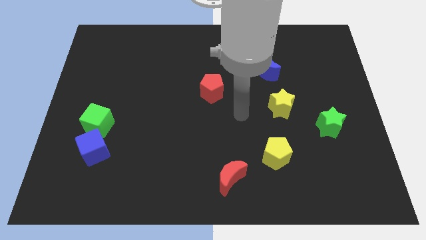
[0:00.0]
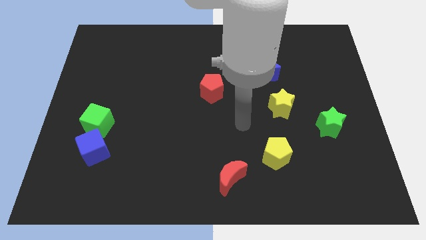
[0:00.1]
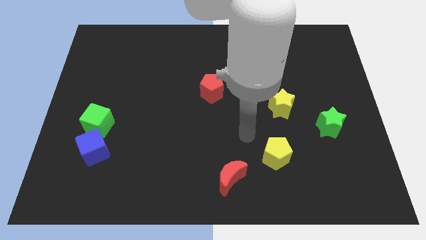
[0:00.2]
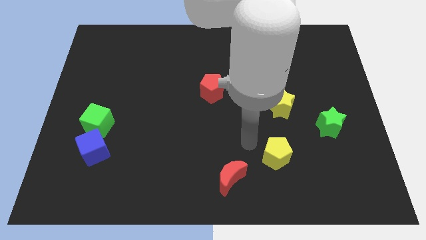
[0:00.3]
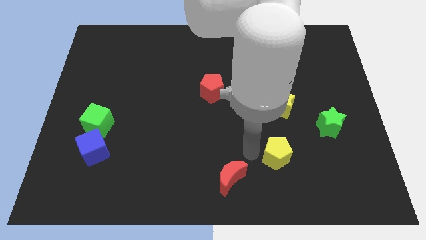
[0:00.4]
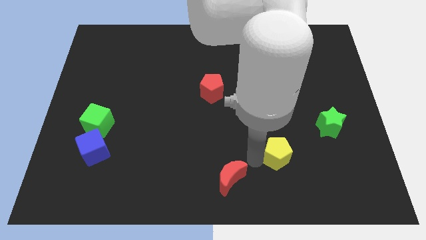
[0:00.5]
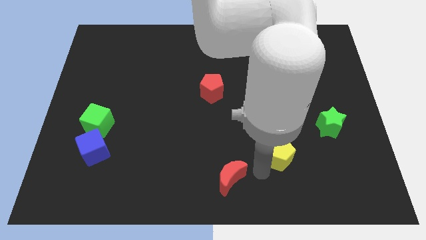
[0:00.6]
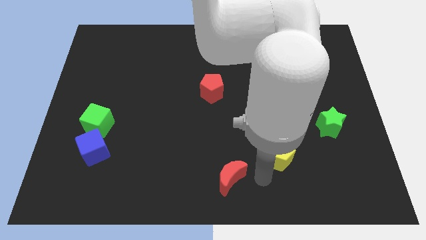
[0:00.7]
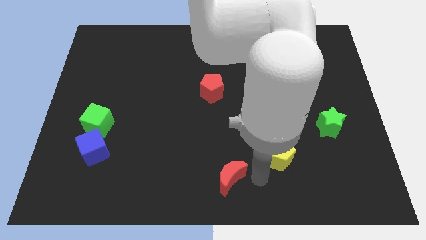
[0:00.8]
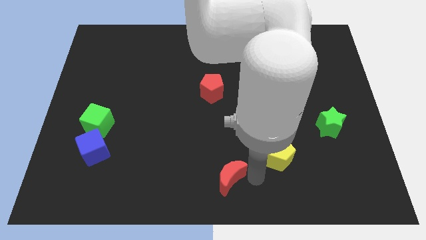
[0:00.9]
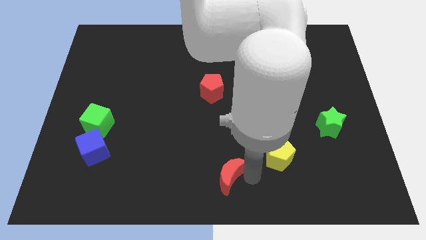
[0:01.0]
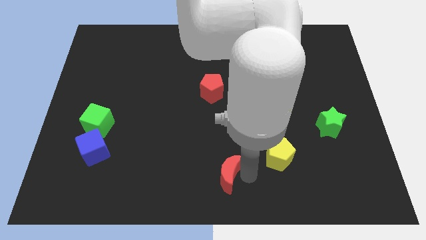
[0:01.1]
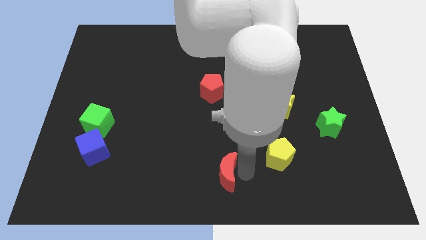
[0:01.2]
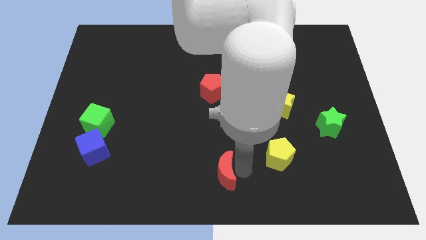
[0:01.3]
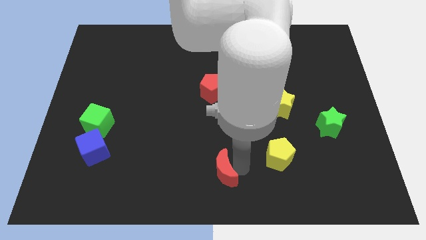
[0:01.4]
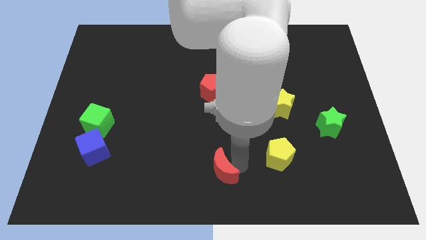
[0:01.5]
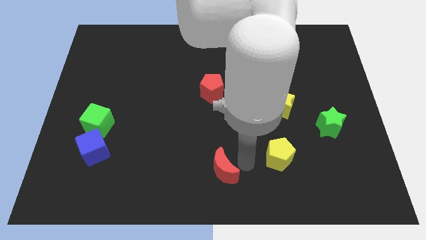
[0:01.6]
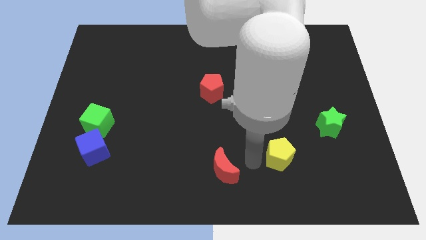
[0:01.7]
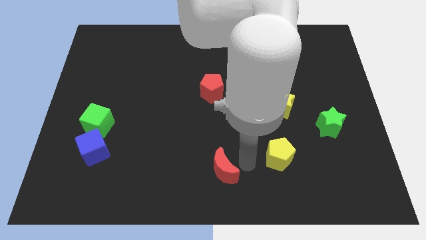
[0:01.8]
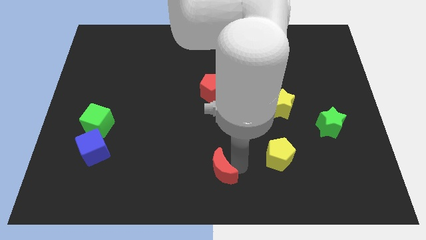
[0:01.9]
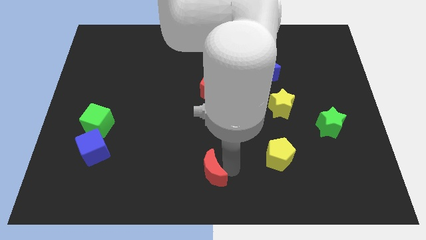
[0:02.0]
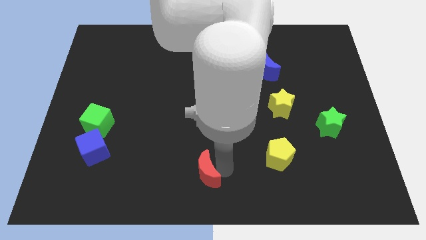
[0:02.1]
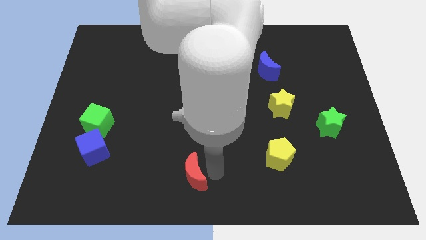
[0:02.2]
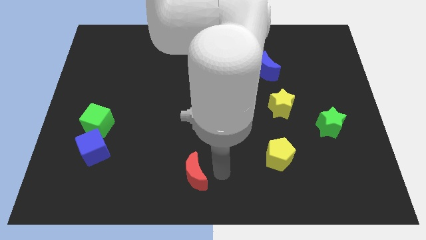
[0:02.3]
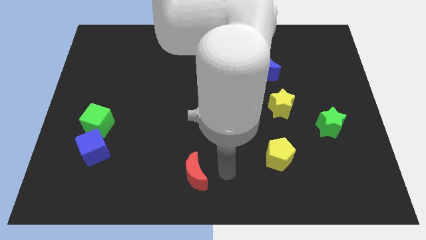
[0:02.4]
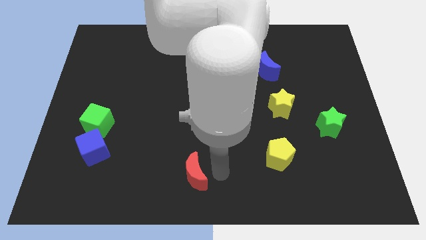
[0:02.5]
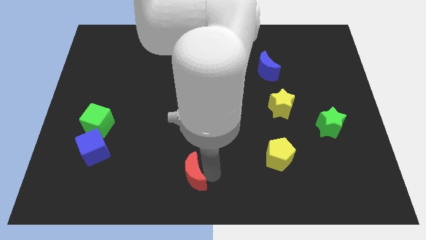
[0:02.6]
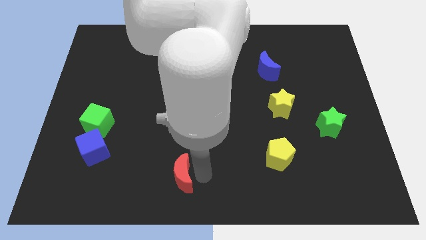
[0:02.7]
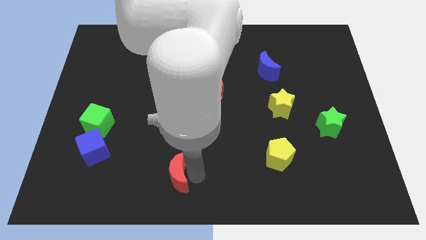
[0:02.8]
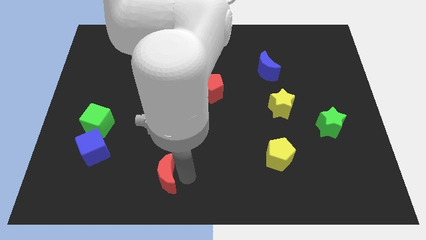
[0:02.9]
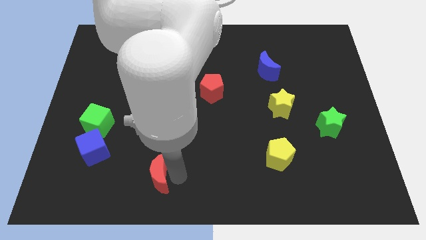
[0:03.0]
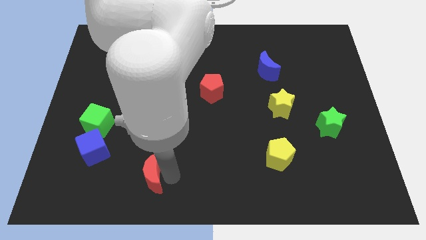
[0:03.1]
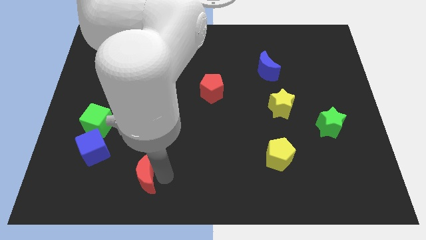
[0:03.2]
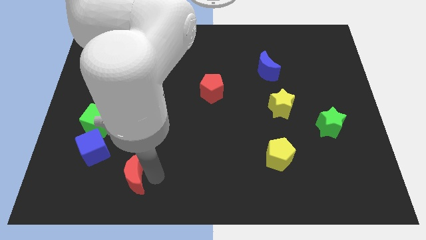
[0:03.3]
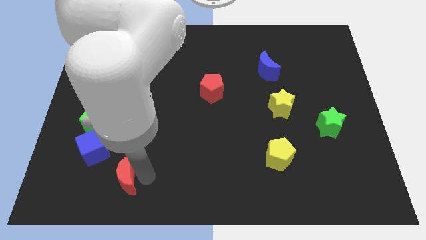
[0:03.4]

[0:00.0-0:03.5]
push the red moon to the left

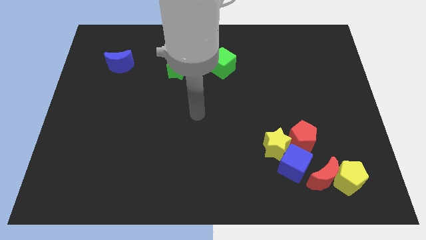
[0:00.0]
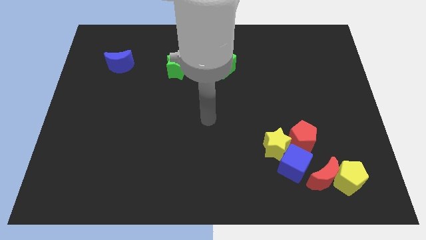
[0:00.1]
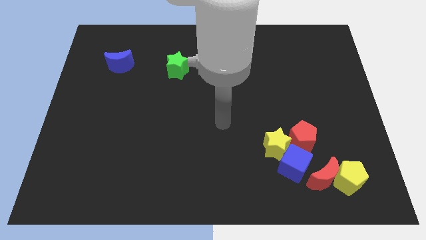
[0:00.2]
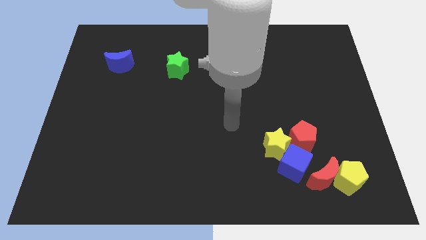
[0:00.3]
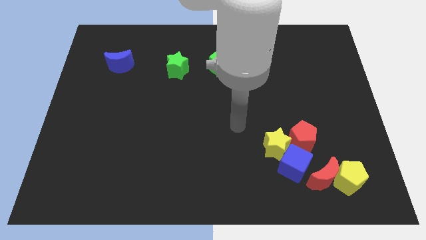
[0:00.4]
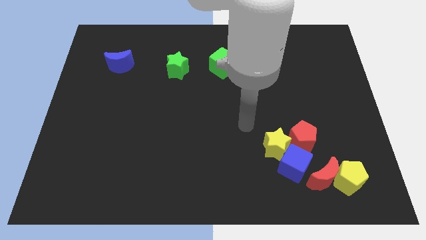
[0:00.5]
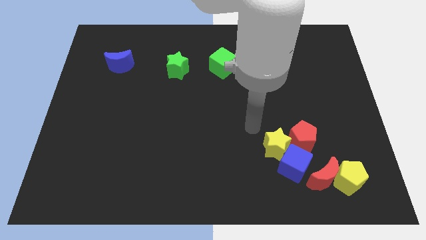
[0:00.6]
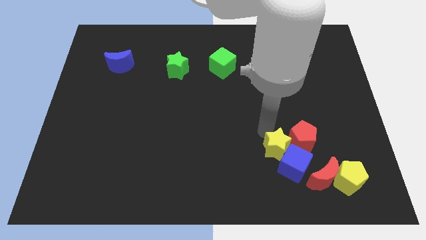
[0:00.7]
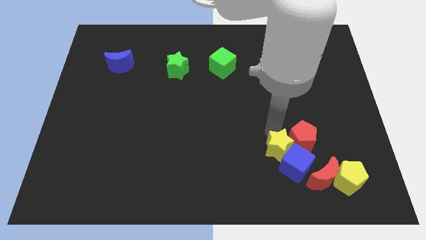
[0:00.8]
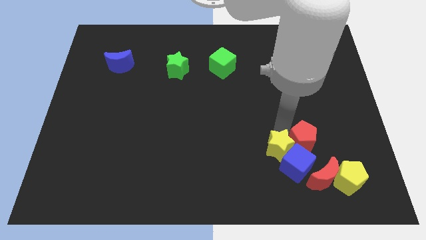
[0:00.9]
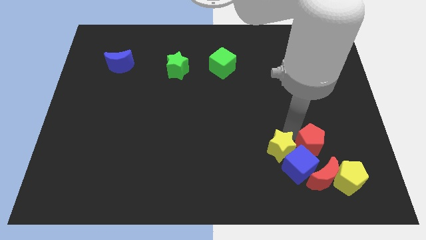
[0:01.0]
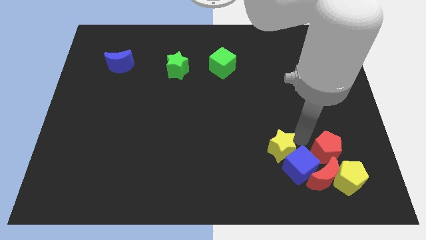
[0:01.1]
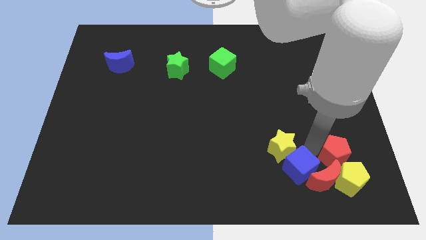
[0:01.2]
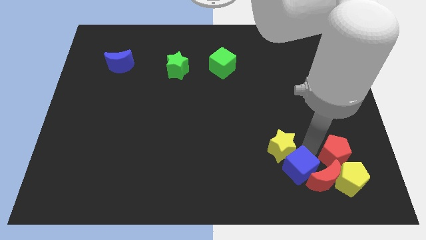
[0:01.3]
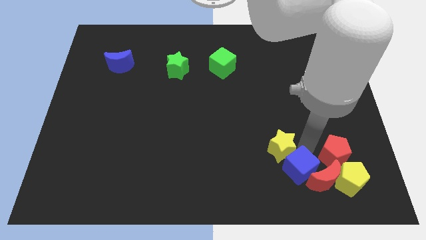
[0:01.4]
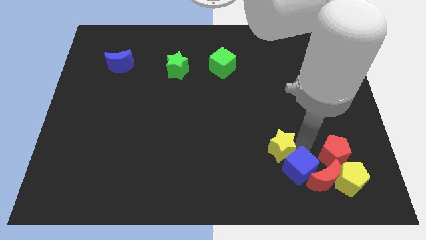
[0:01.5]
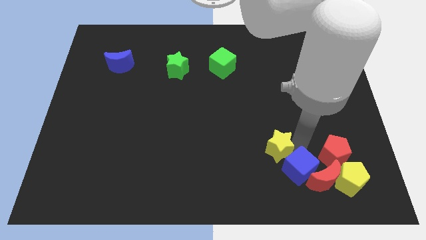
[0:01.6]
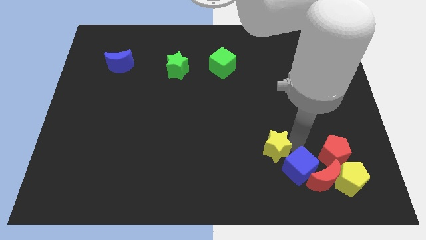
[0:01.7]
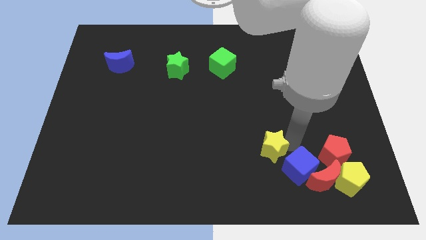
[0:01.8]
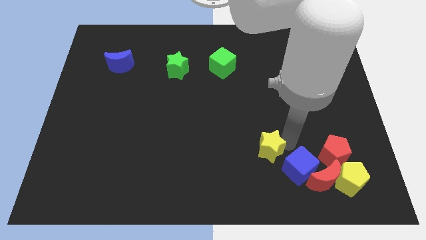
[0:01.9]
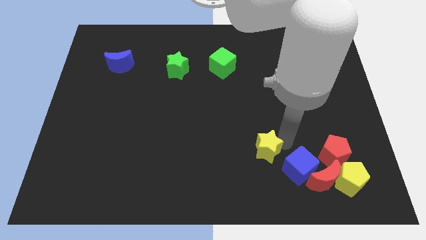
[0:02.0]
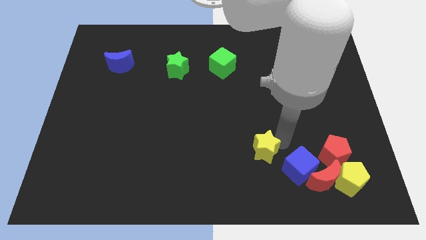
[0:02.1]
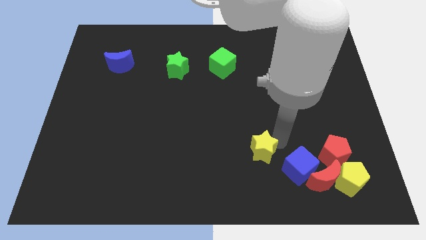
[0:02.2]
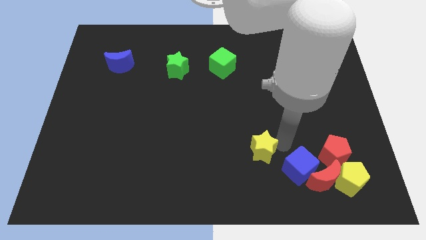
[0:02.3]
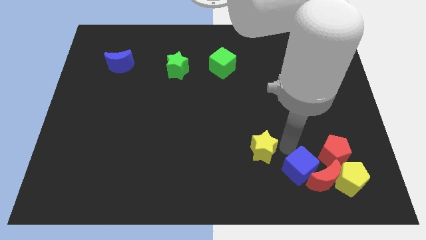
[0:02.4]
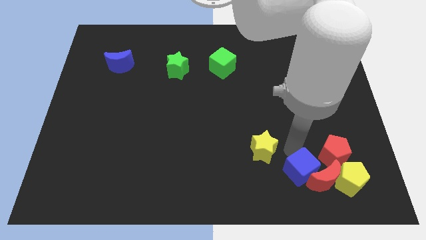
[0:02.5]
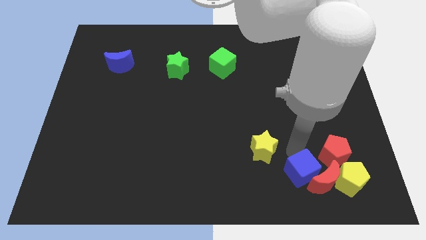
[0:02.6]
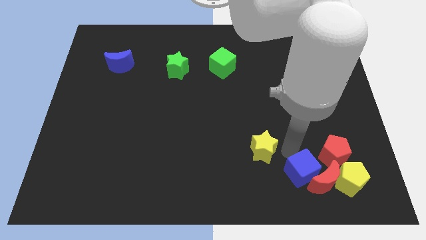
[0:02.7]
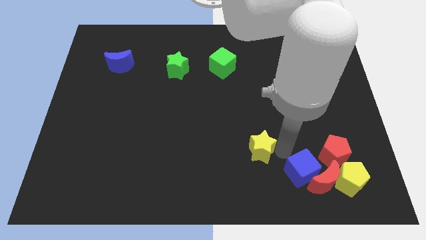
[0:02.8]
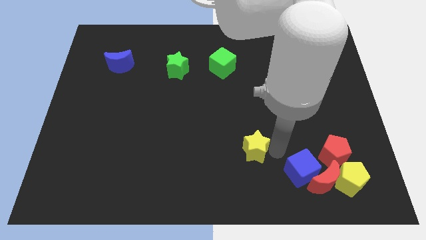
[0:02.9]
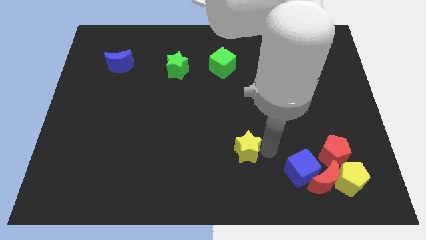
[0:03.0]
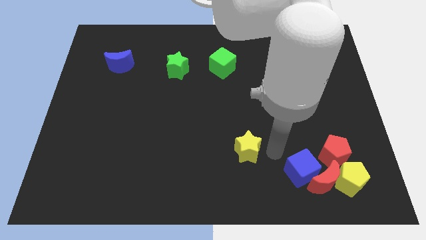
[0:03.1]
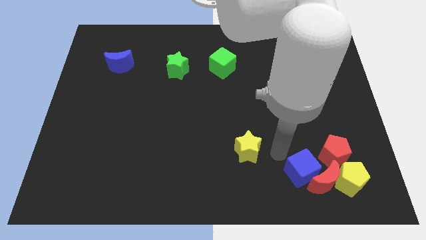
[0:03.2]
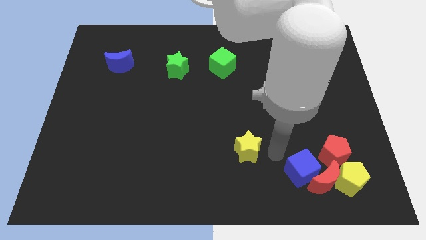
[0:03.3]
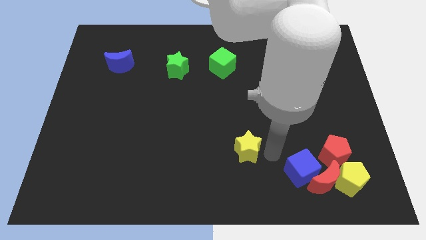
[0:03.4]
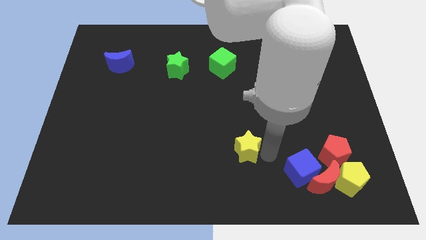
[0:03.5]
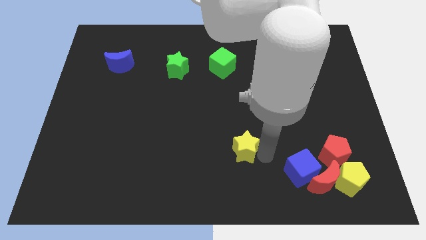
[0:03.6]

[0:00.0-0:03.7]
push the yellow star a little bit left

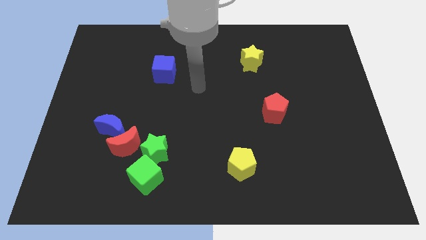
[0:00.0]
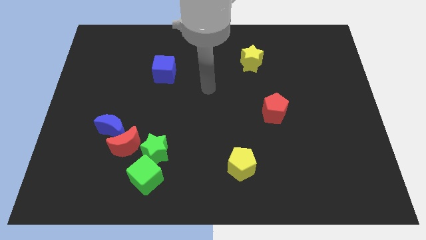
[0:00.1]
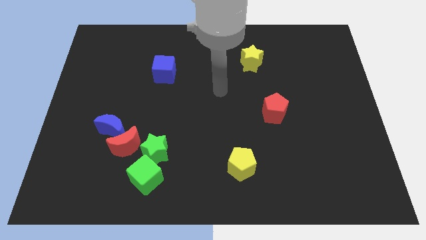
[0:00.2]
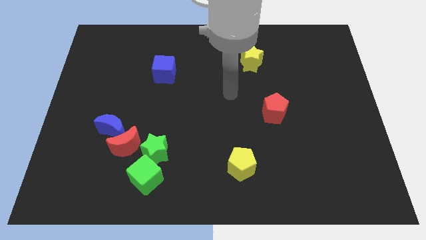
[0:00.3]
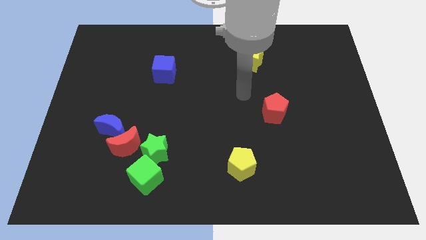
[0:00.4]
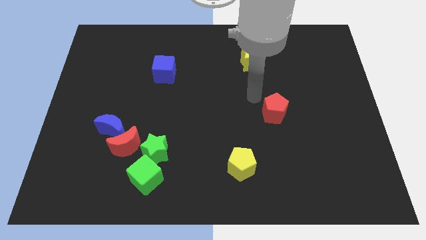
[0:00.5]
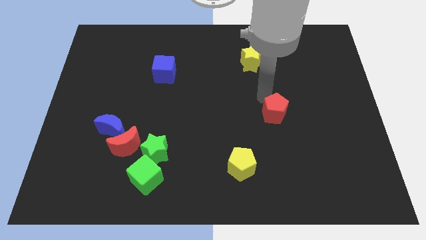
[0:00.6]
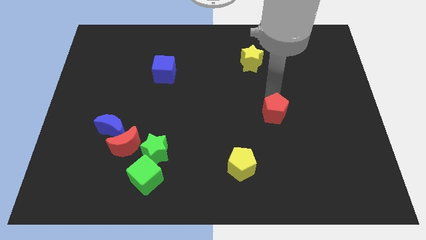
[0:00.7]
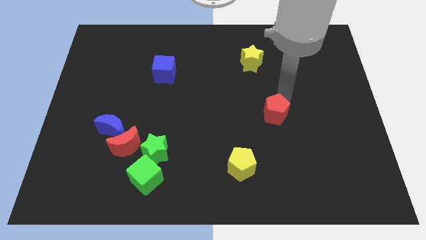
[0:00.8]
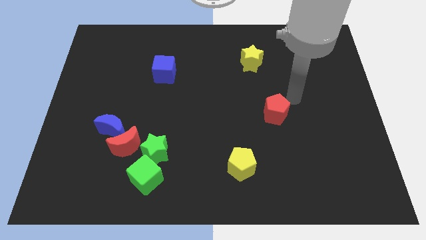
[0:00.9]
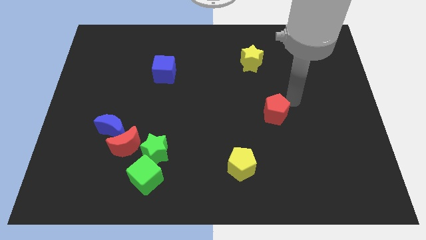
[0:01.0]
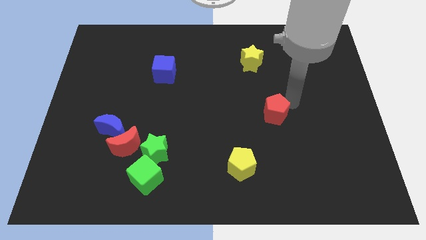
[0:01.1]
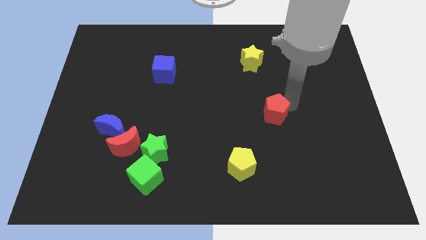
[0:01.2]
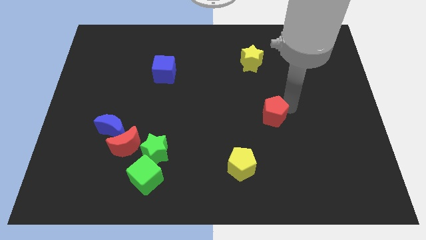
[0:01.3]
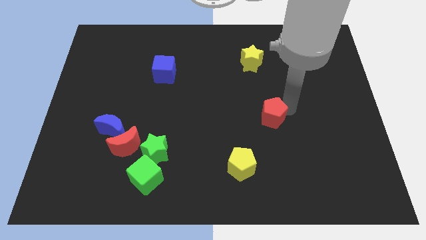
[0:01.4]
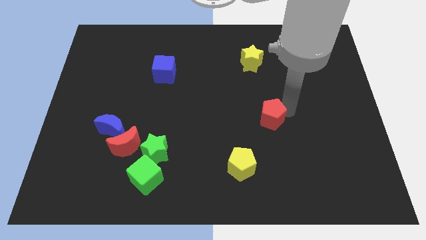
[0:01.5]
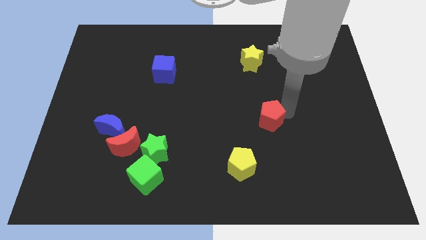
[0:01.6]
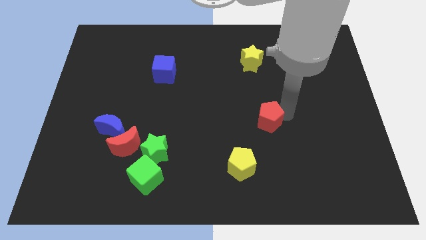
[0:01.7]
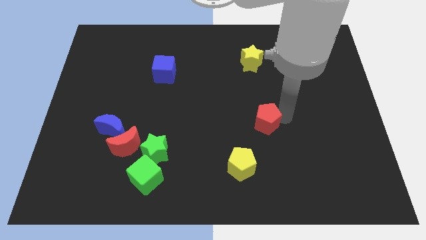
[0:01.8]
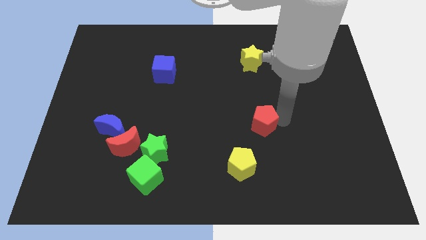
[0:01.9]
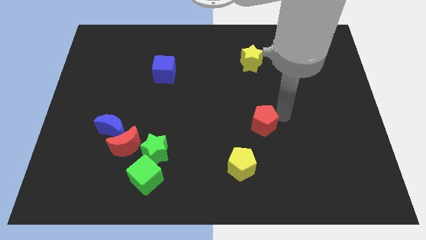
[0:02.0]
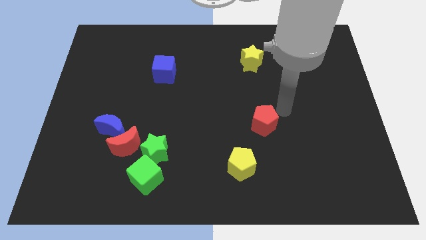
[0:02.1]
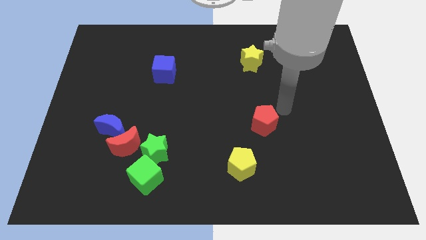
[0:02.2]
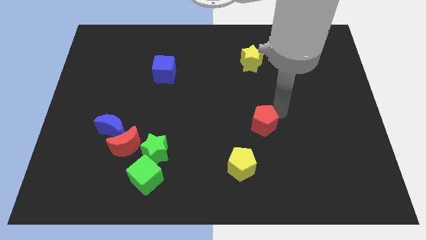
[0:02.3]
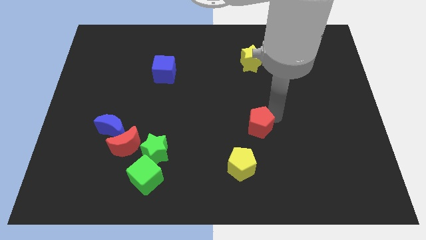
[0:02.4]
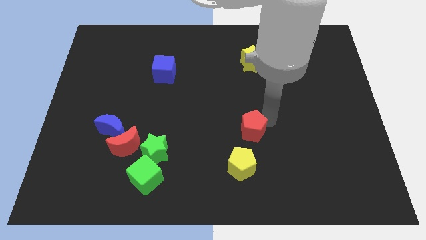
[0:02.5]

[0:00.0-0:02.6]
move the red pentagon downwards and left slightly
